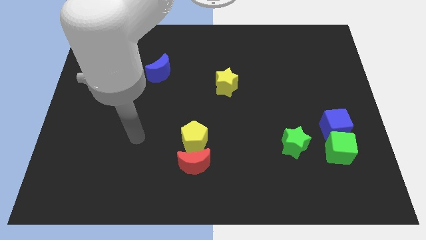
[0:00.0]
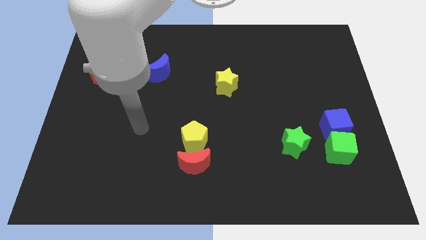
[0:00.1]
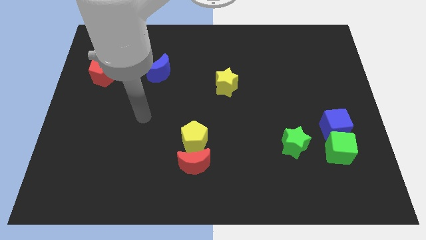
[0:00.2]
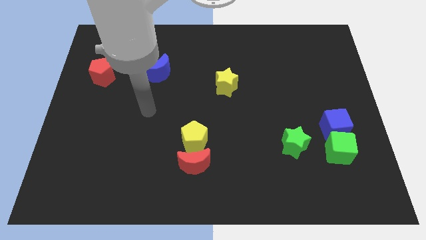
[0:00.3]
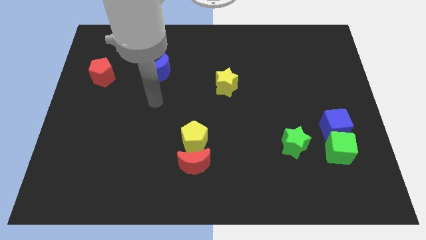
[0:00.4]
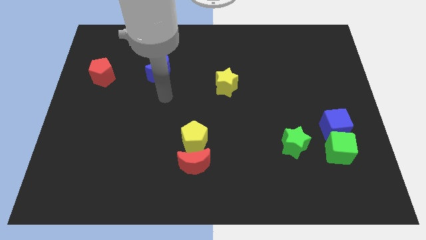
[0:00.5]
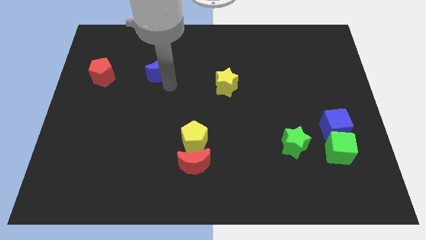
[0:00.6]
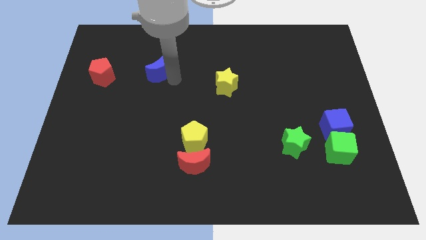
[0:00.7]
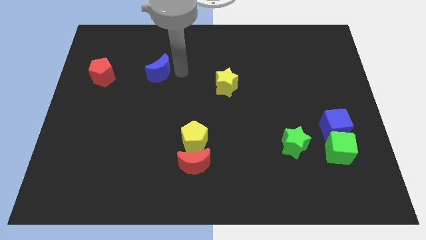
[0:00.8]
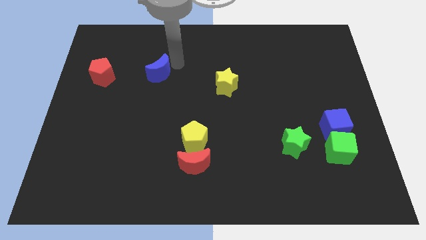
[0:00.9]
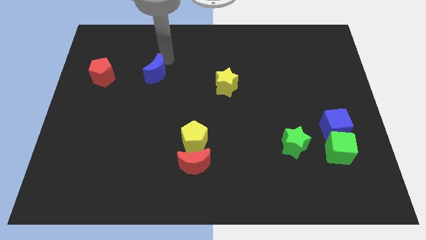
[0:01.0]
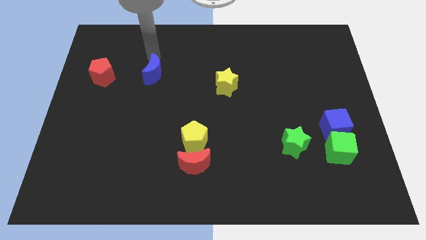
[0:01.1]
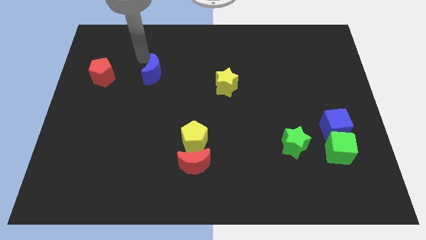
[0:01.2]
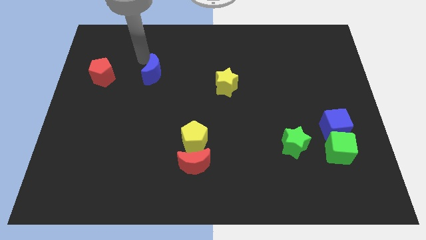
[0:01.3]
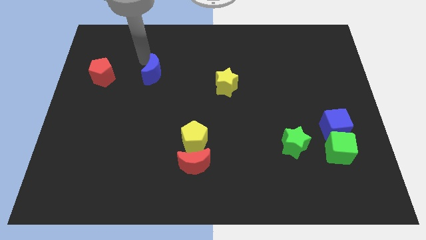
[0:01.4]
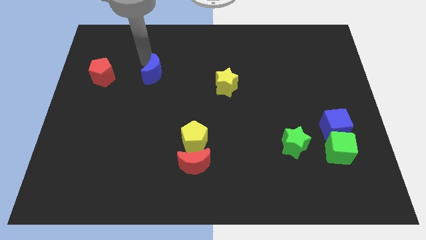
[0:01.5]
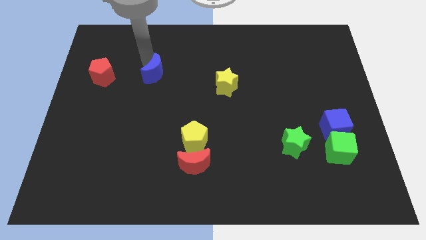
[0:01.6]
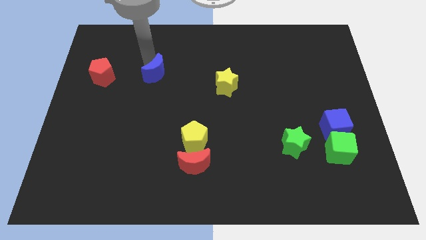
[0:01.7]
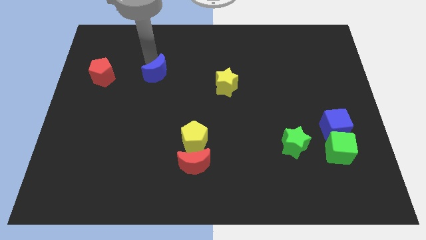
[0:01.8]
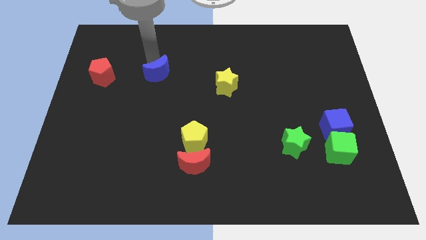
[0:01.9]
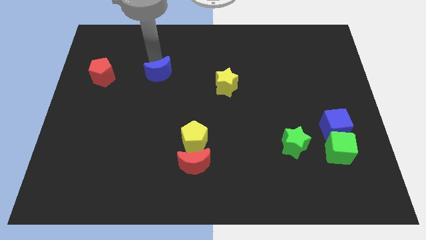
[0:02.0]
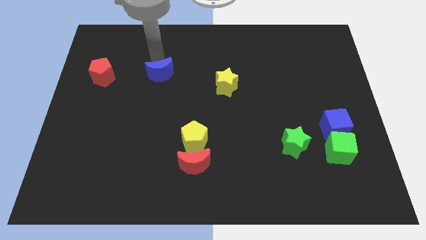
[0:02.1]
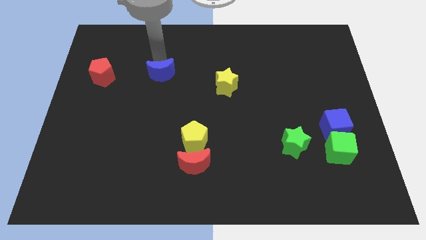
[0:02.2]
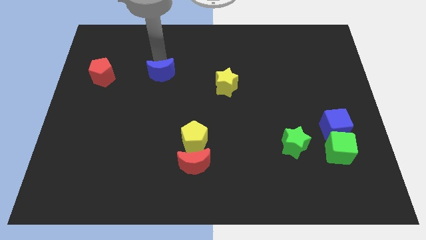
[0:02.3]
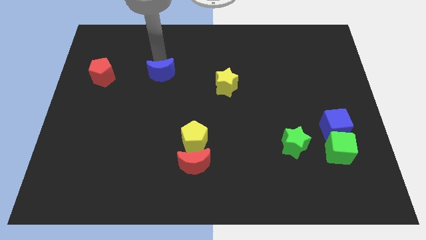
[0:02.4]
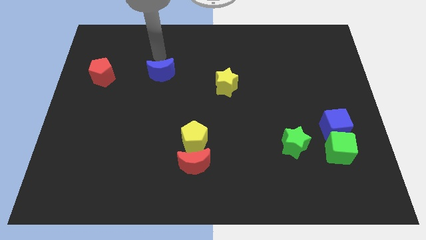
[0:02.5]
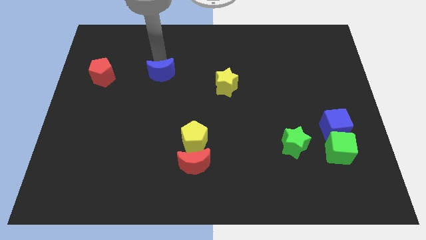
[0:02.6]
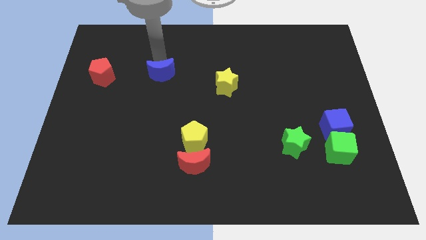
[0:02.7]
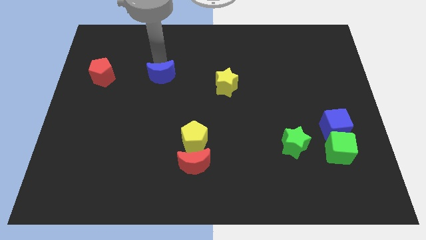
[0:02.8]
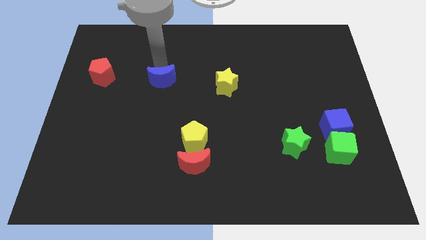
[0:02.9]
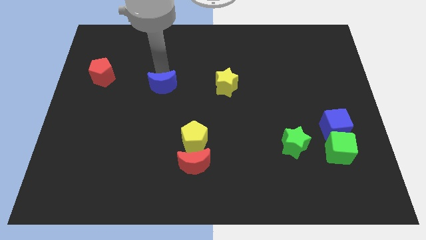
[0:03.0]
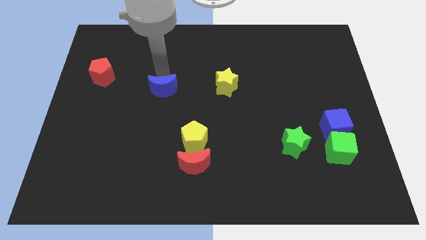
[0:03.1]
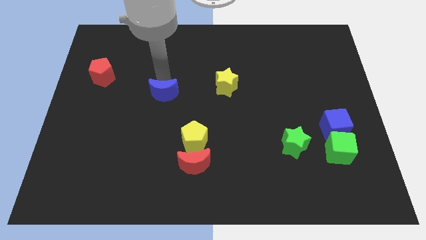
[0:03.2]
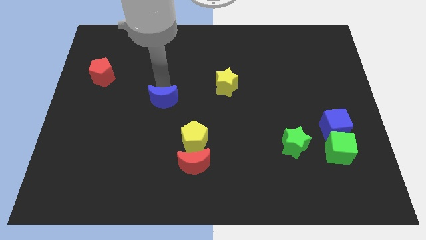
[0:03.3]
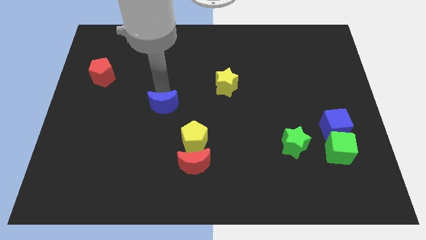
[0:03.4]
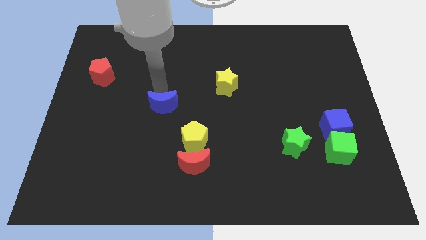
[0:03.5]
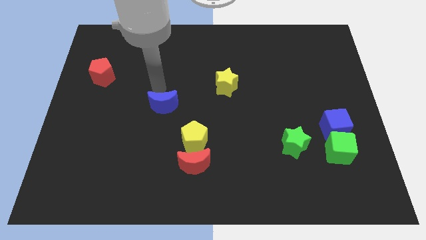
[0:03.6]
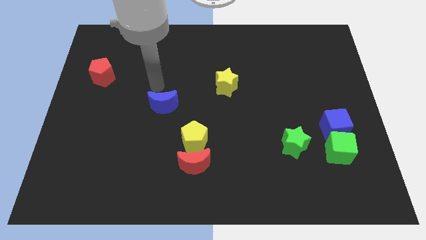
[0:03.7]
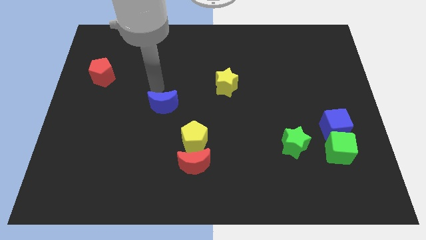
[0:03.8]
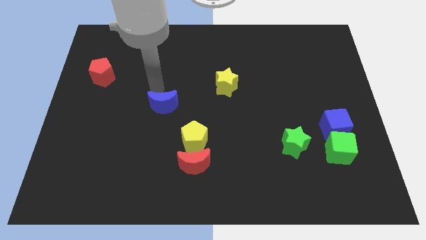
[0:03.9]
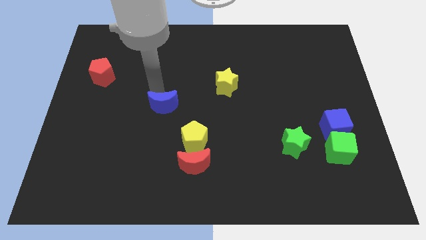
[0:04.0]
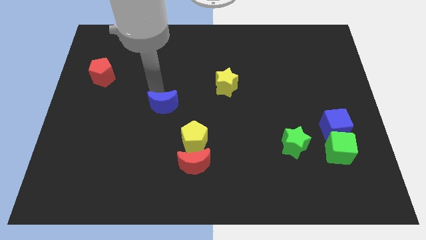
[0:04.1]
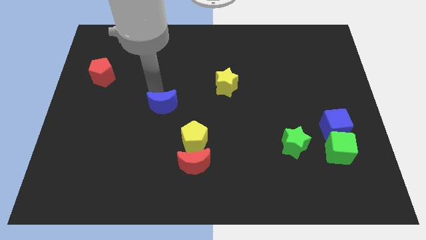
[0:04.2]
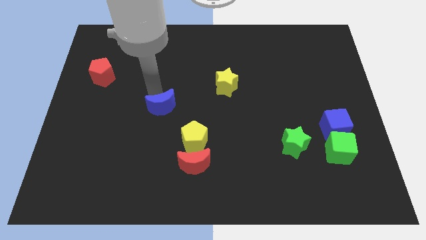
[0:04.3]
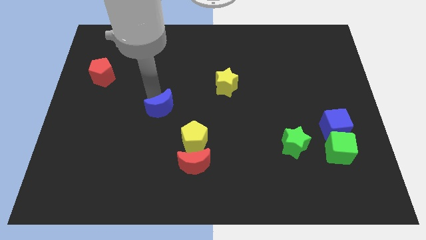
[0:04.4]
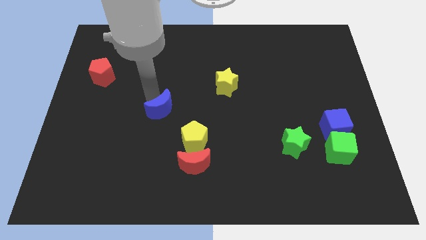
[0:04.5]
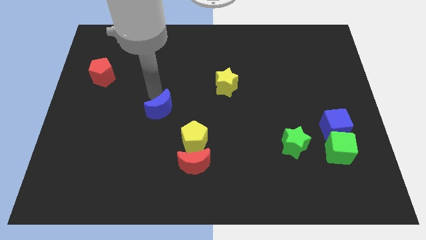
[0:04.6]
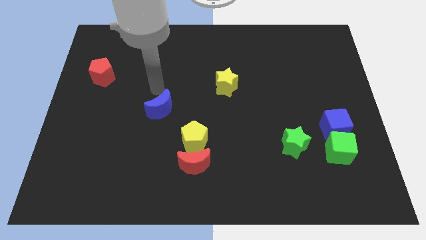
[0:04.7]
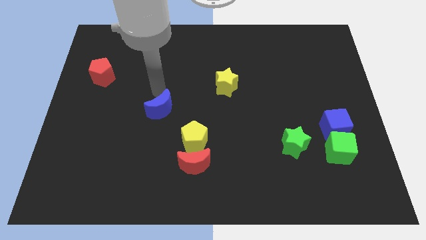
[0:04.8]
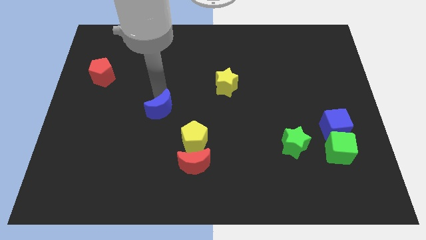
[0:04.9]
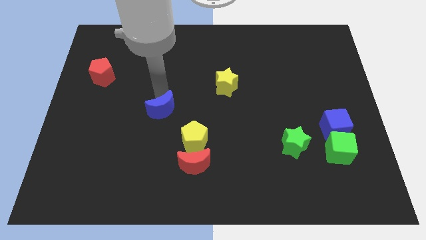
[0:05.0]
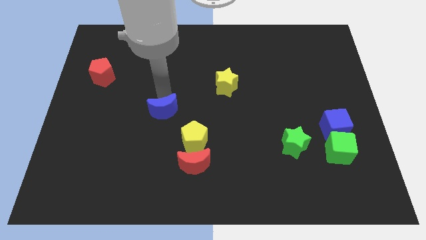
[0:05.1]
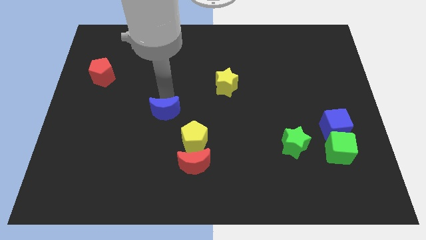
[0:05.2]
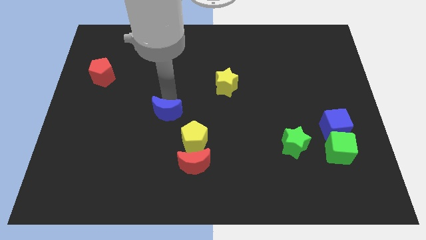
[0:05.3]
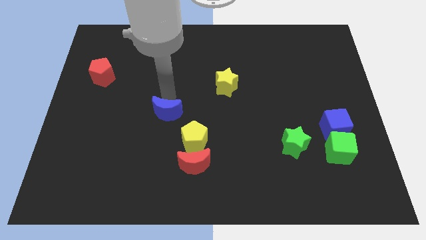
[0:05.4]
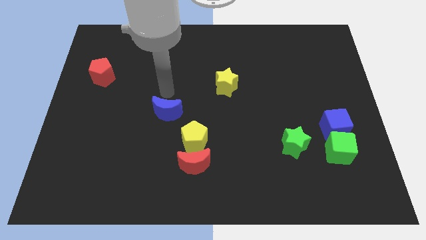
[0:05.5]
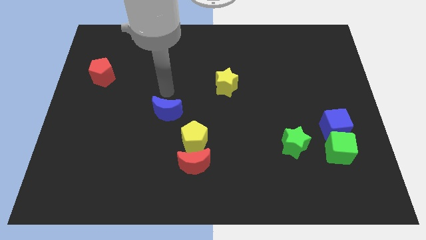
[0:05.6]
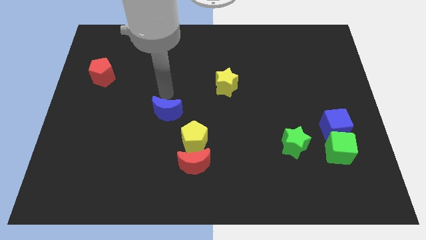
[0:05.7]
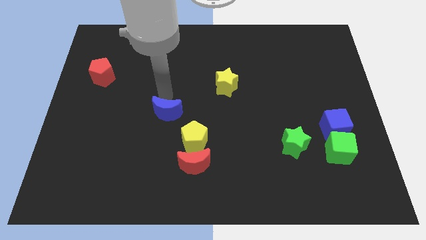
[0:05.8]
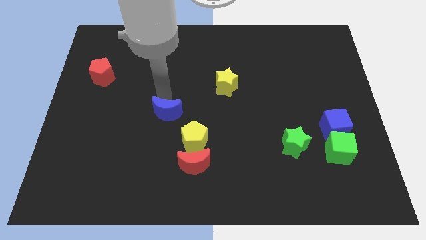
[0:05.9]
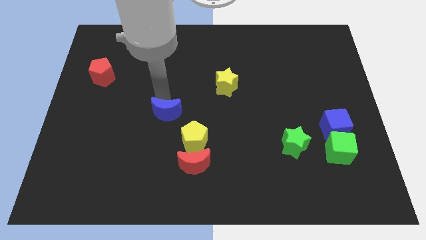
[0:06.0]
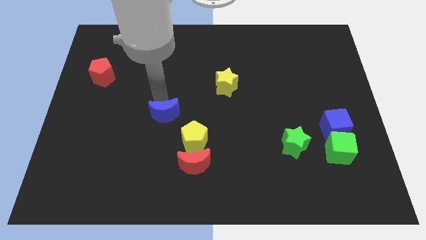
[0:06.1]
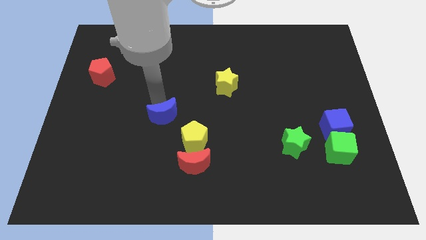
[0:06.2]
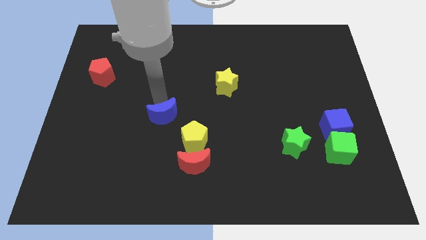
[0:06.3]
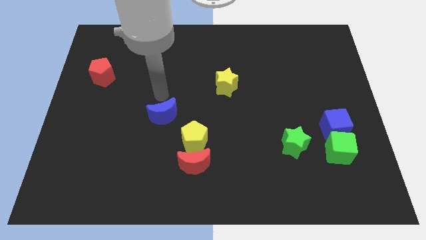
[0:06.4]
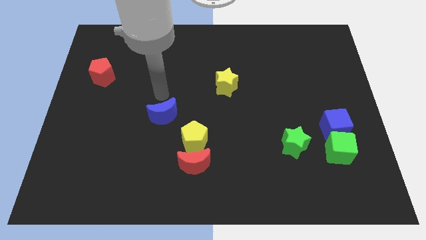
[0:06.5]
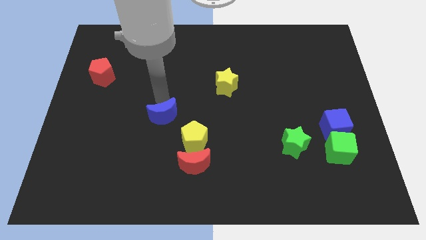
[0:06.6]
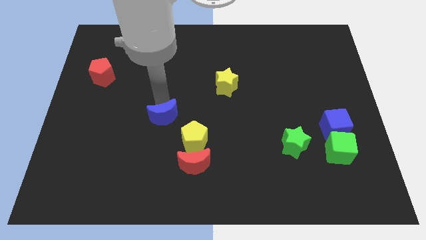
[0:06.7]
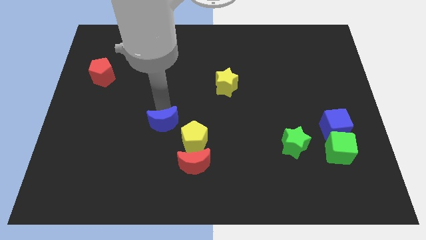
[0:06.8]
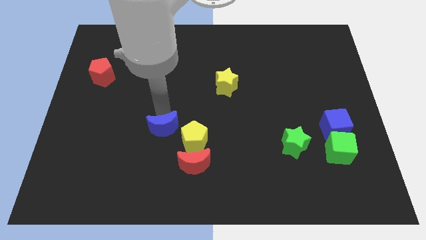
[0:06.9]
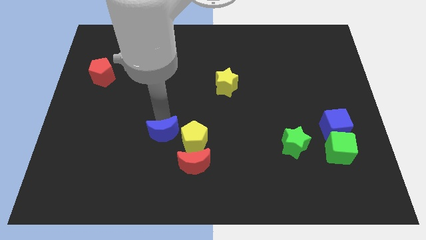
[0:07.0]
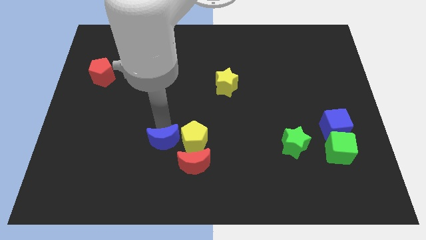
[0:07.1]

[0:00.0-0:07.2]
move the blue moon diagonally down and to the left of the yellow pentagon
